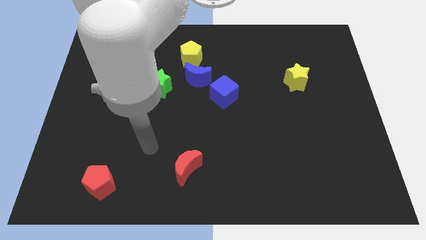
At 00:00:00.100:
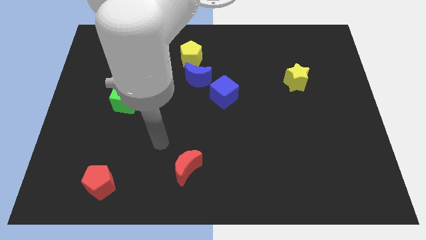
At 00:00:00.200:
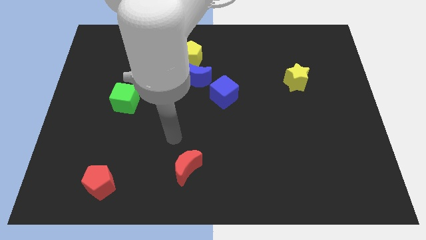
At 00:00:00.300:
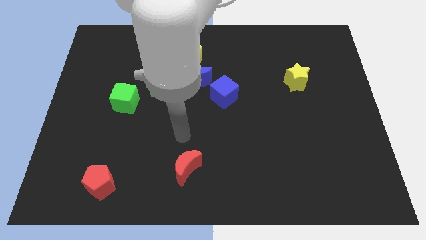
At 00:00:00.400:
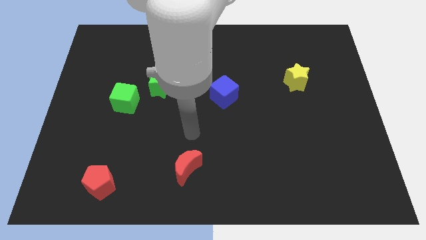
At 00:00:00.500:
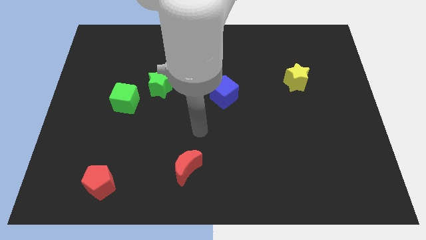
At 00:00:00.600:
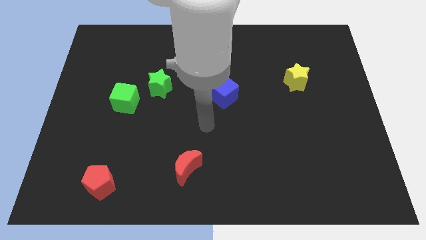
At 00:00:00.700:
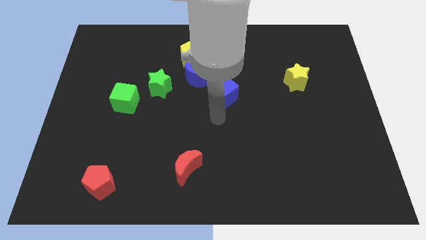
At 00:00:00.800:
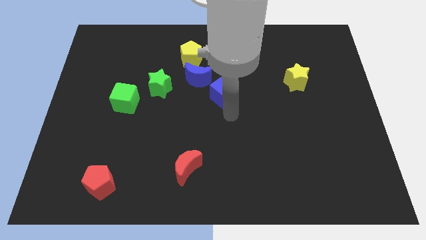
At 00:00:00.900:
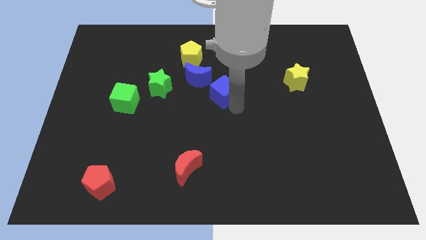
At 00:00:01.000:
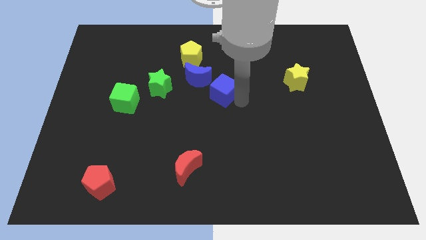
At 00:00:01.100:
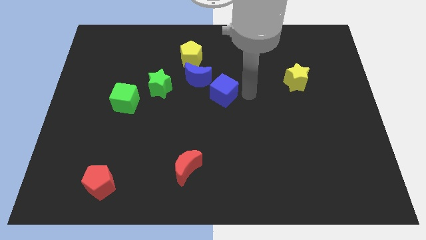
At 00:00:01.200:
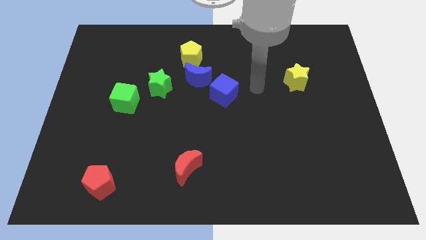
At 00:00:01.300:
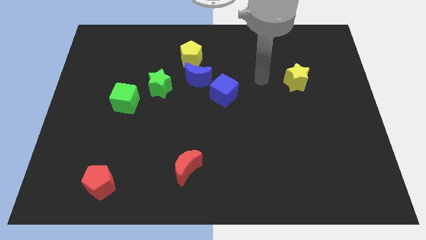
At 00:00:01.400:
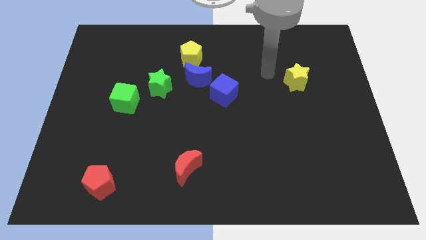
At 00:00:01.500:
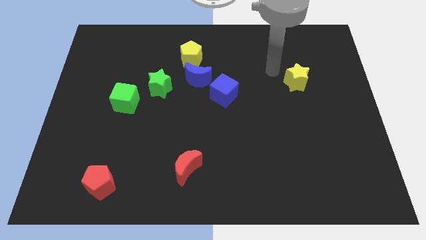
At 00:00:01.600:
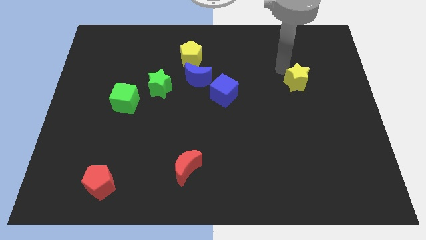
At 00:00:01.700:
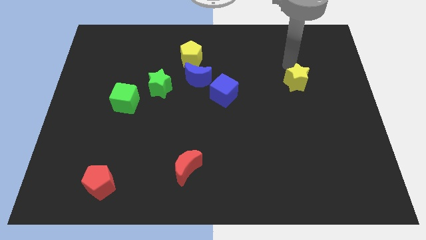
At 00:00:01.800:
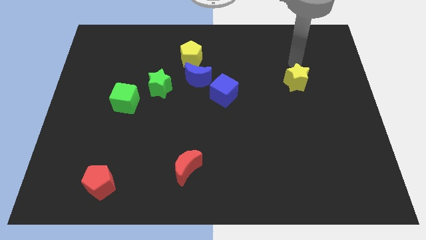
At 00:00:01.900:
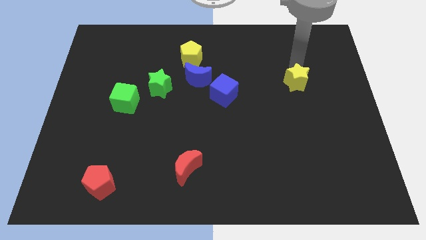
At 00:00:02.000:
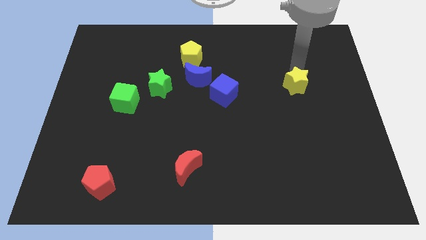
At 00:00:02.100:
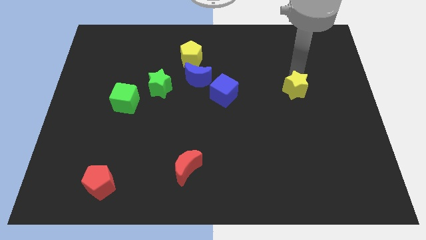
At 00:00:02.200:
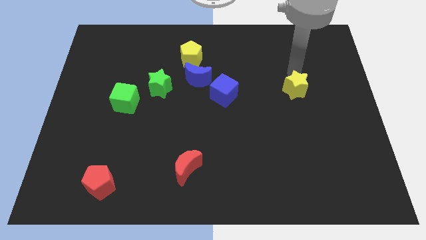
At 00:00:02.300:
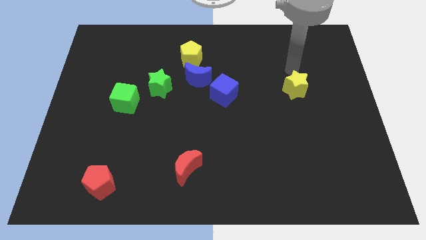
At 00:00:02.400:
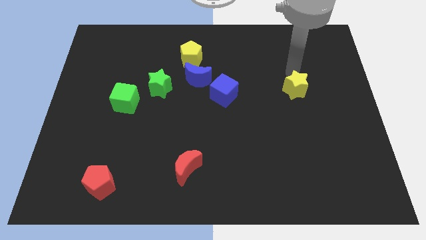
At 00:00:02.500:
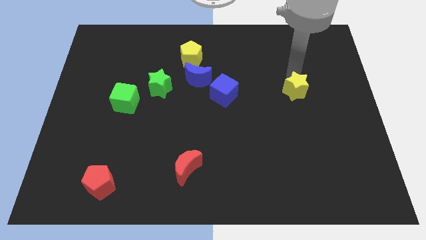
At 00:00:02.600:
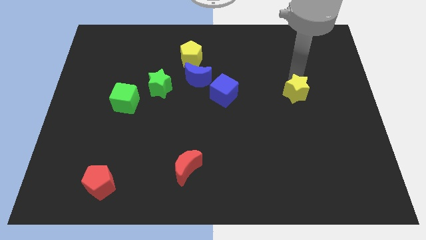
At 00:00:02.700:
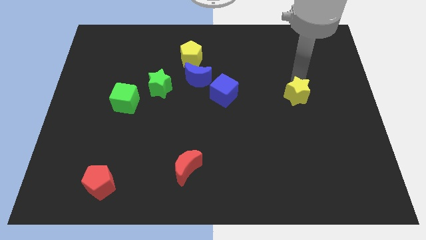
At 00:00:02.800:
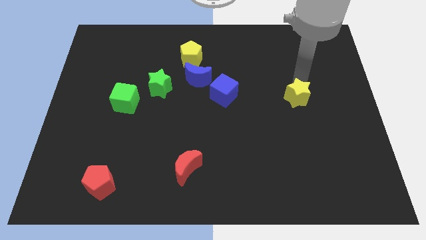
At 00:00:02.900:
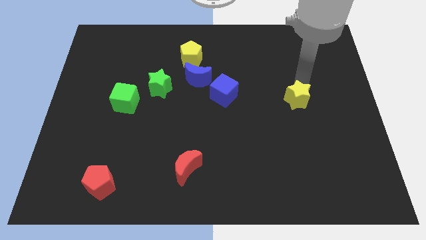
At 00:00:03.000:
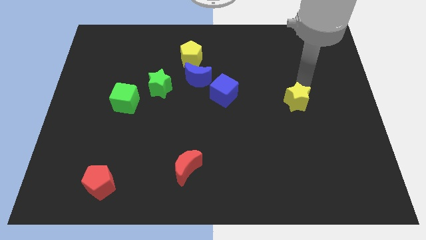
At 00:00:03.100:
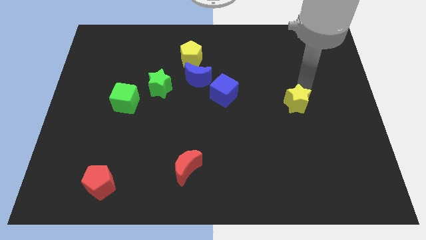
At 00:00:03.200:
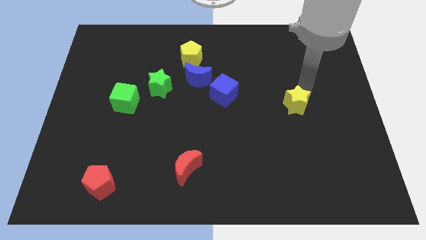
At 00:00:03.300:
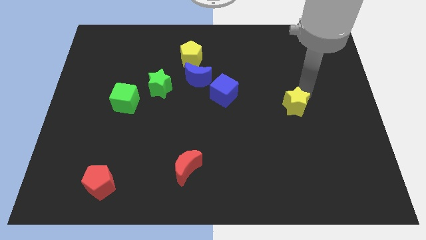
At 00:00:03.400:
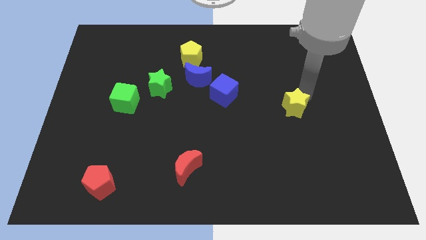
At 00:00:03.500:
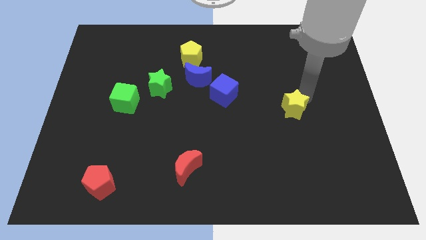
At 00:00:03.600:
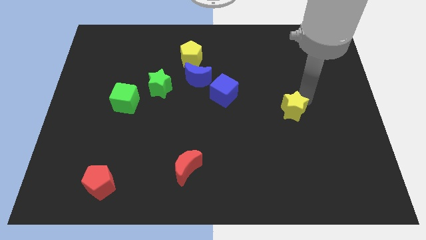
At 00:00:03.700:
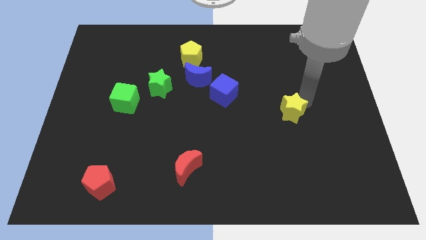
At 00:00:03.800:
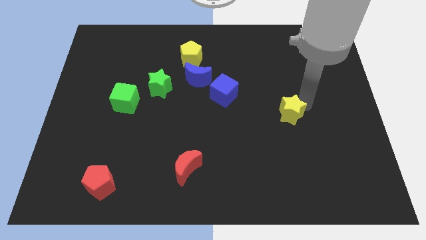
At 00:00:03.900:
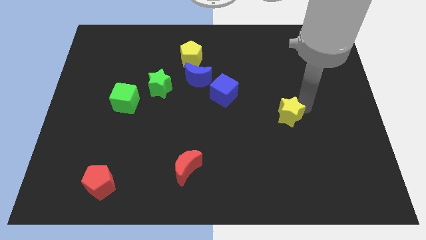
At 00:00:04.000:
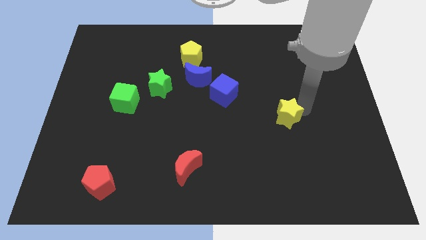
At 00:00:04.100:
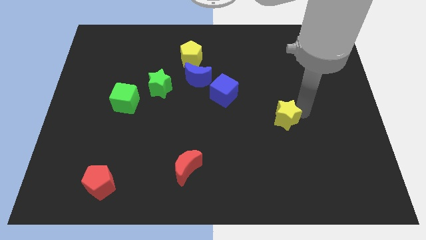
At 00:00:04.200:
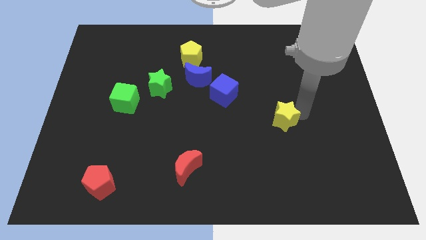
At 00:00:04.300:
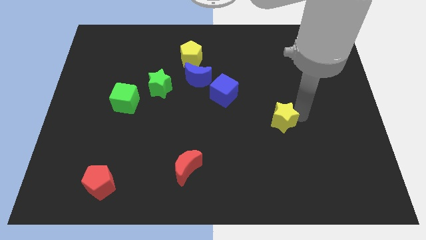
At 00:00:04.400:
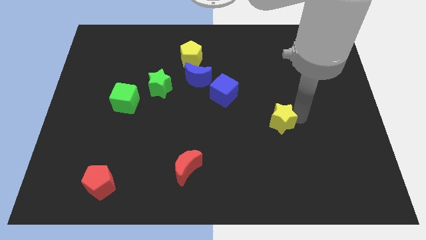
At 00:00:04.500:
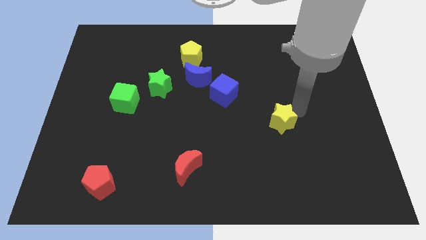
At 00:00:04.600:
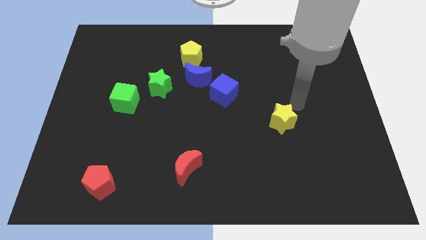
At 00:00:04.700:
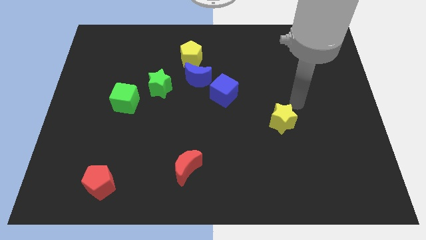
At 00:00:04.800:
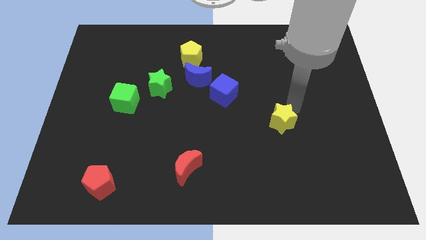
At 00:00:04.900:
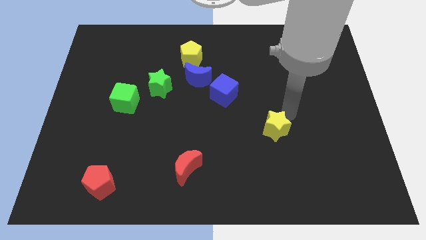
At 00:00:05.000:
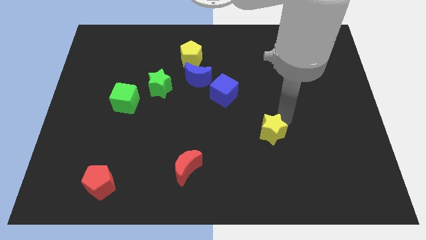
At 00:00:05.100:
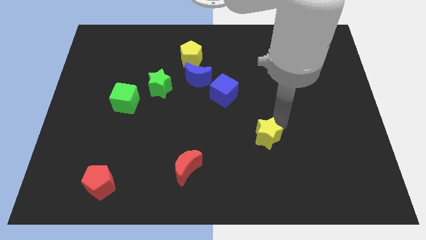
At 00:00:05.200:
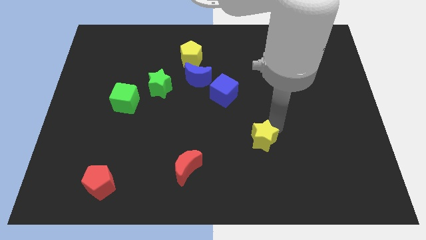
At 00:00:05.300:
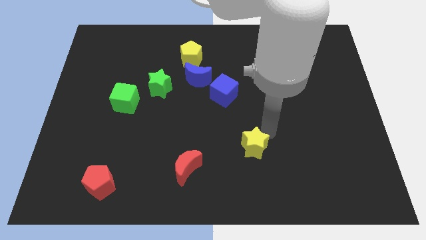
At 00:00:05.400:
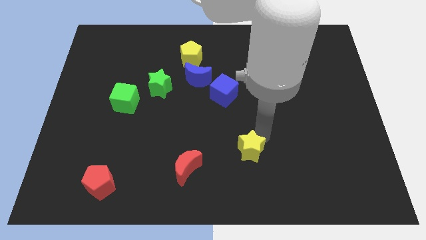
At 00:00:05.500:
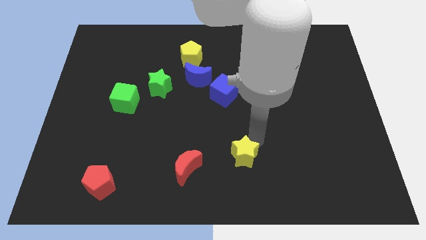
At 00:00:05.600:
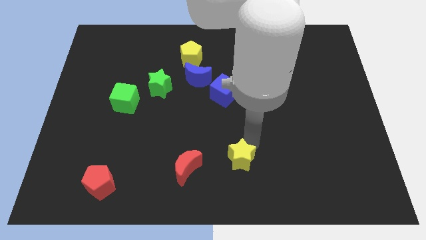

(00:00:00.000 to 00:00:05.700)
put the yellow star to the bottom side

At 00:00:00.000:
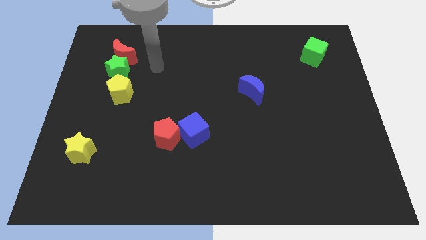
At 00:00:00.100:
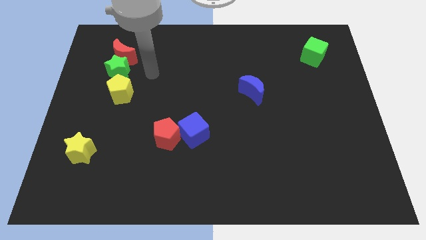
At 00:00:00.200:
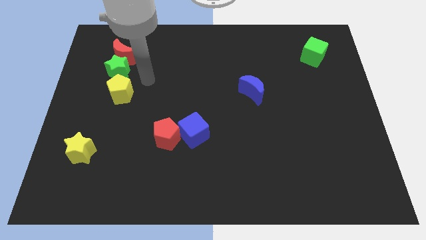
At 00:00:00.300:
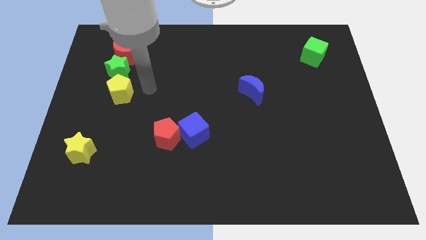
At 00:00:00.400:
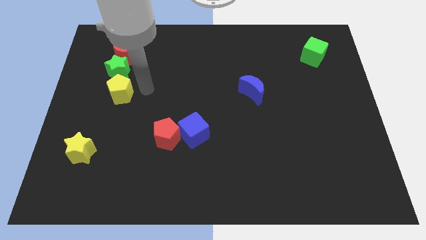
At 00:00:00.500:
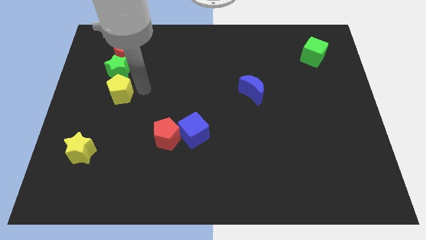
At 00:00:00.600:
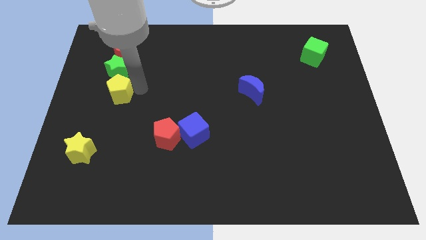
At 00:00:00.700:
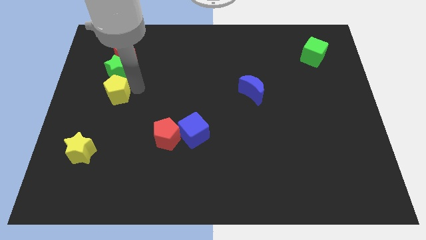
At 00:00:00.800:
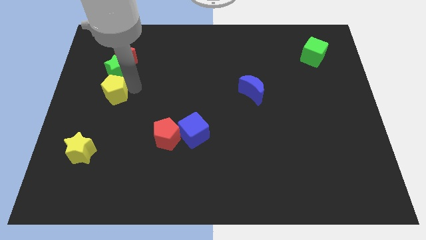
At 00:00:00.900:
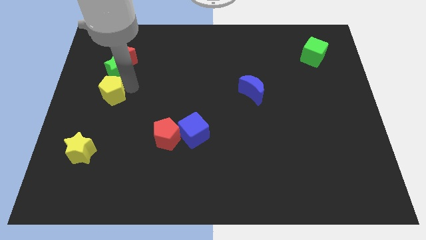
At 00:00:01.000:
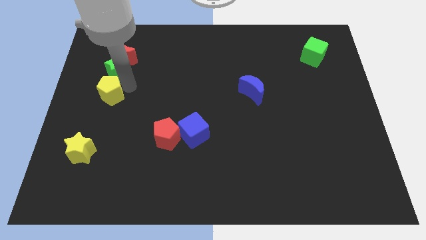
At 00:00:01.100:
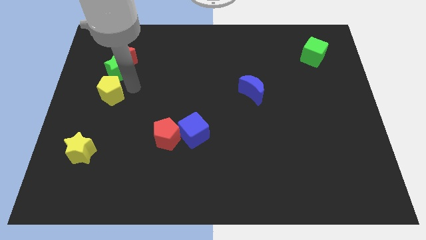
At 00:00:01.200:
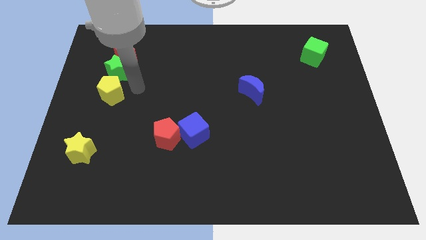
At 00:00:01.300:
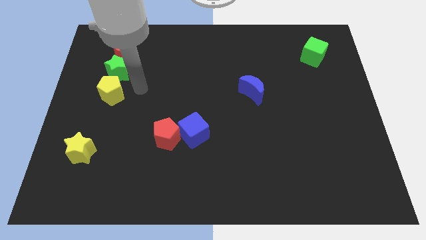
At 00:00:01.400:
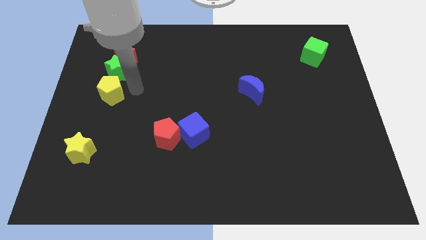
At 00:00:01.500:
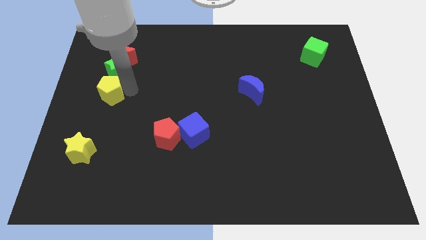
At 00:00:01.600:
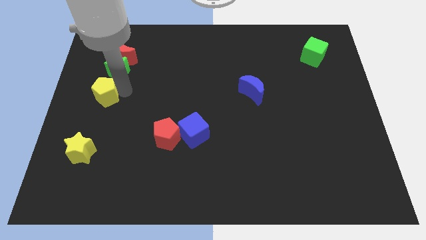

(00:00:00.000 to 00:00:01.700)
slide the yellow pentagon to the left side

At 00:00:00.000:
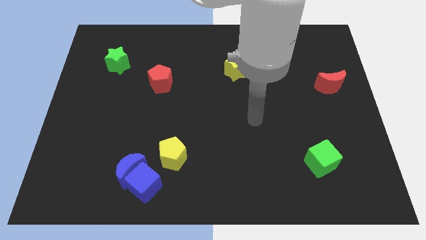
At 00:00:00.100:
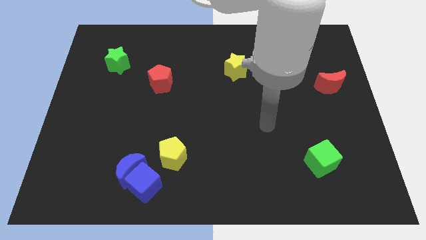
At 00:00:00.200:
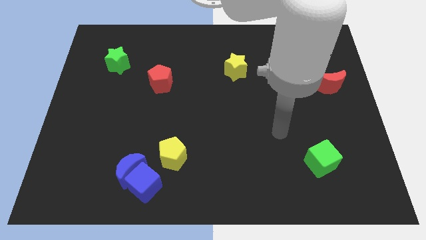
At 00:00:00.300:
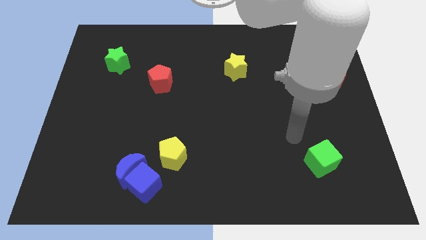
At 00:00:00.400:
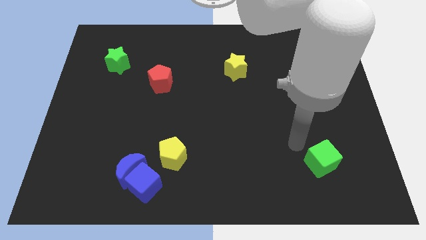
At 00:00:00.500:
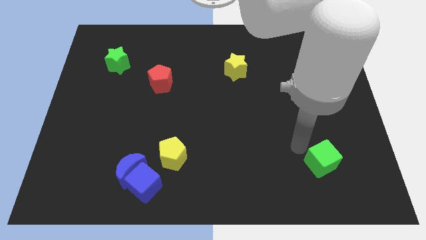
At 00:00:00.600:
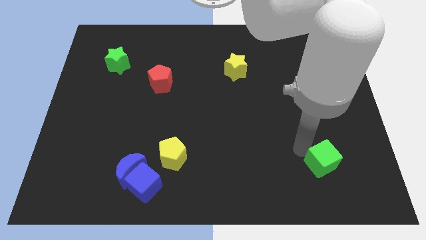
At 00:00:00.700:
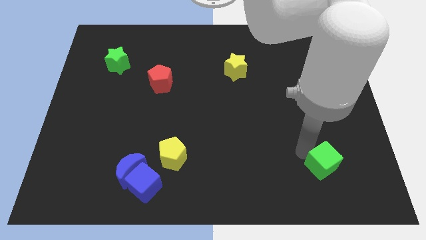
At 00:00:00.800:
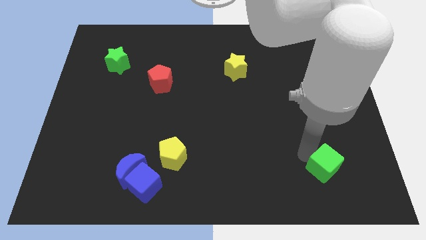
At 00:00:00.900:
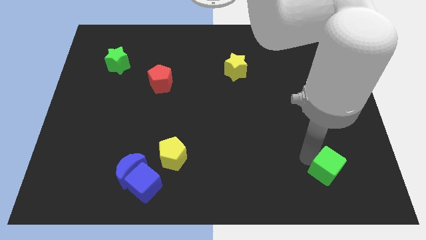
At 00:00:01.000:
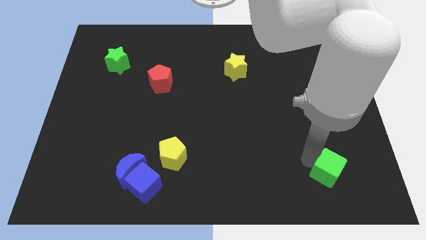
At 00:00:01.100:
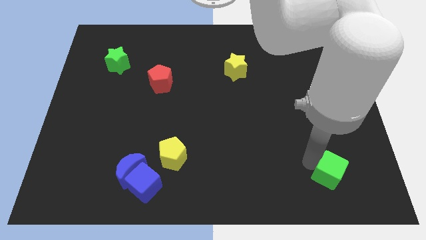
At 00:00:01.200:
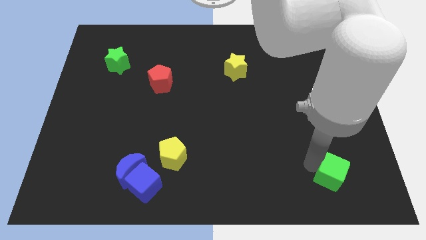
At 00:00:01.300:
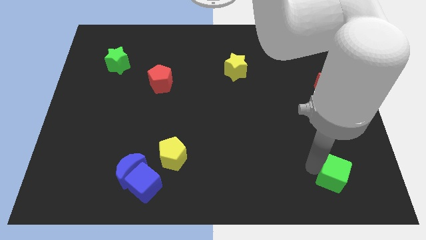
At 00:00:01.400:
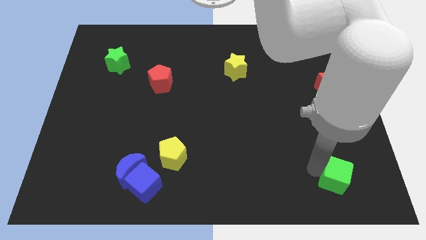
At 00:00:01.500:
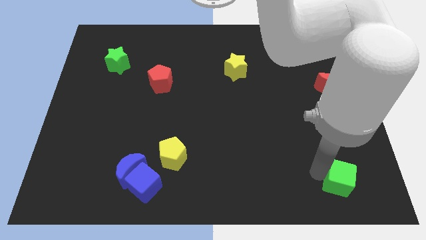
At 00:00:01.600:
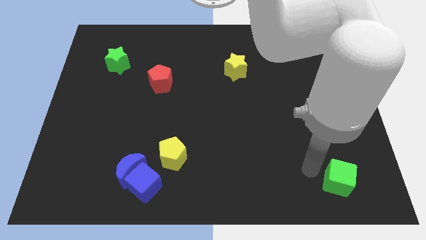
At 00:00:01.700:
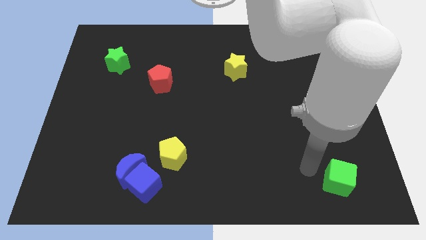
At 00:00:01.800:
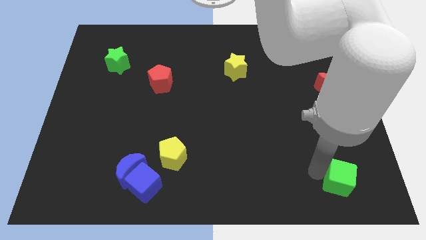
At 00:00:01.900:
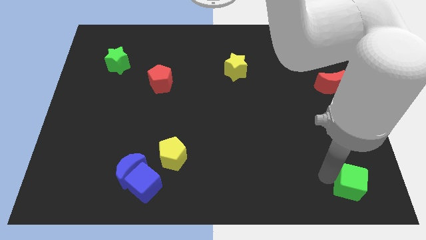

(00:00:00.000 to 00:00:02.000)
put the green cube to the bottom right
